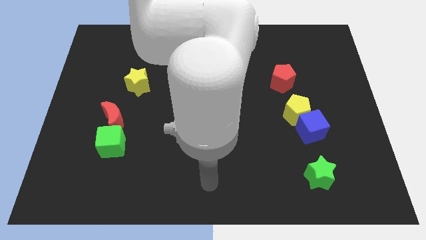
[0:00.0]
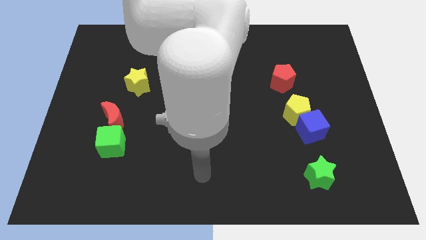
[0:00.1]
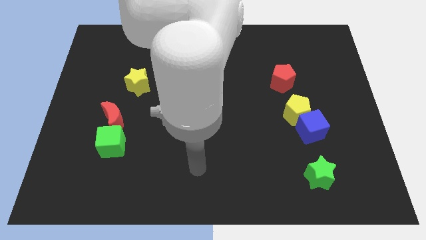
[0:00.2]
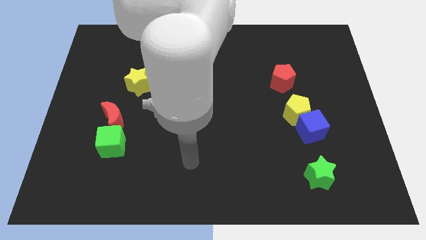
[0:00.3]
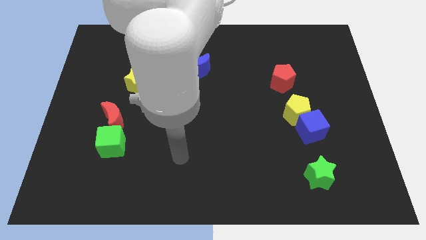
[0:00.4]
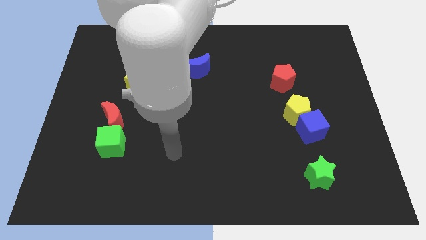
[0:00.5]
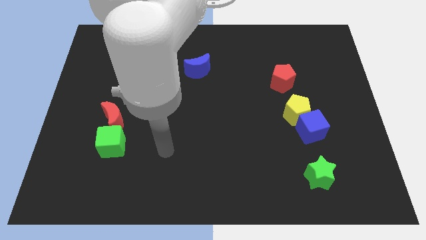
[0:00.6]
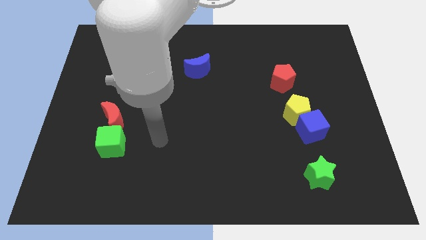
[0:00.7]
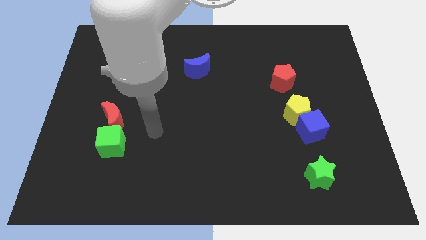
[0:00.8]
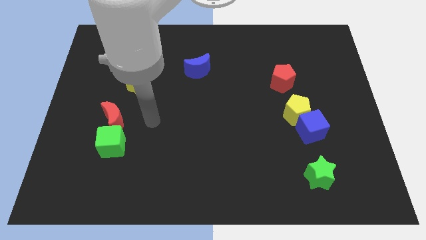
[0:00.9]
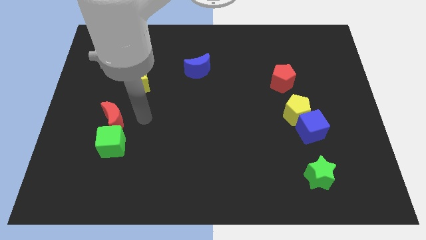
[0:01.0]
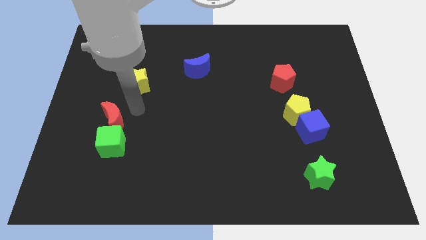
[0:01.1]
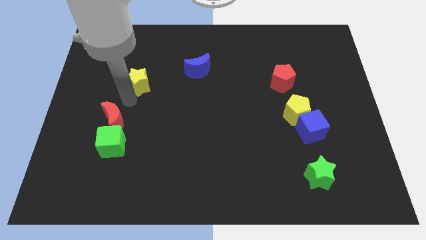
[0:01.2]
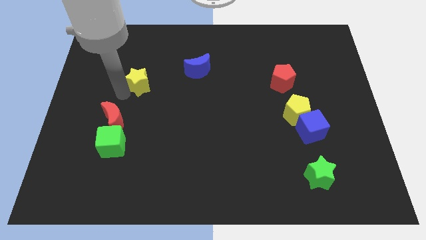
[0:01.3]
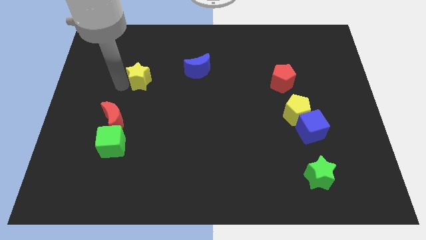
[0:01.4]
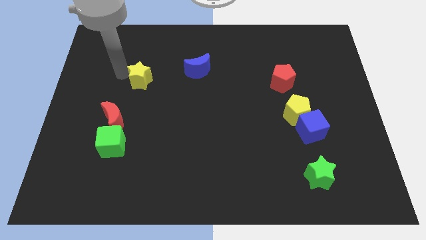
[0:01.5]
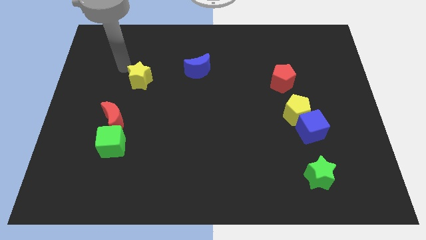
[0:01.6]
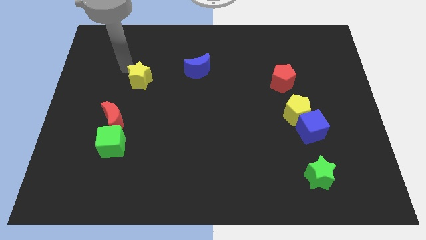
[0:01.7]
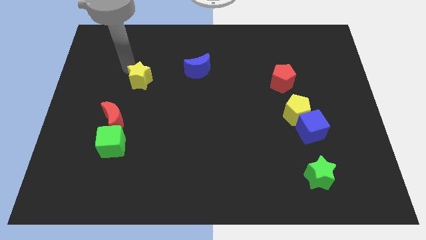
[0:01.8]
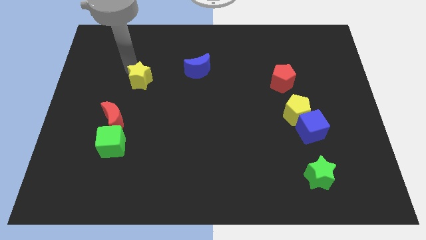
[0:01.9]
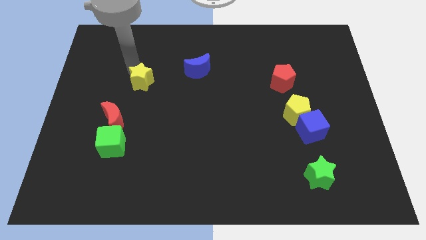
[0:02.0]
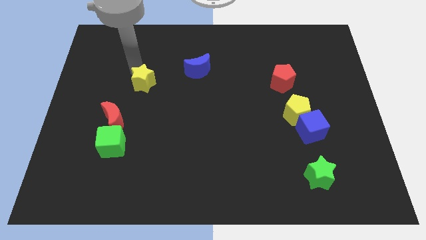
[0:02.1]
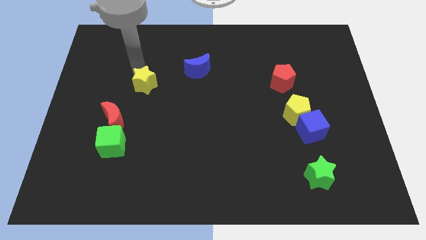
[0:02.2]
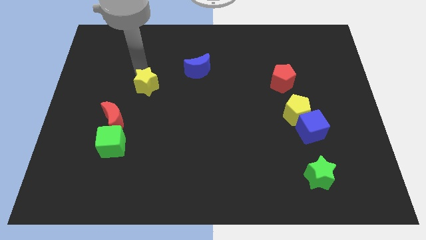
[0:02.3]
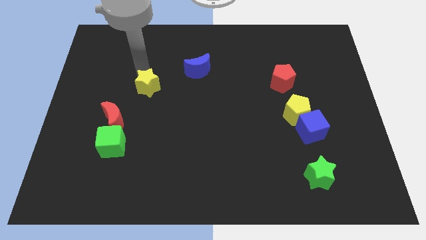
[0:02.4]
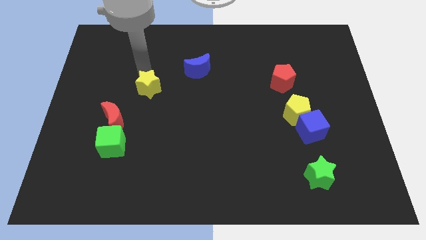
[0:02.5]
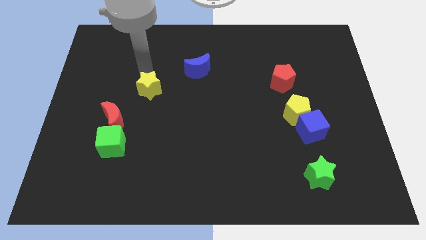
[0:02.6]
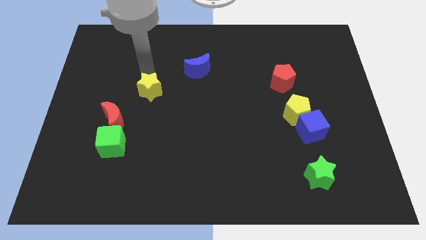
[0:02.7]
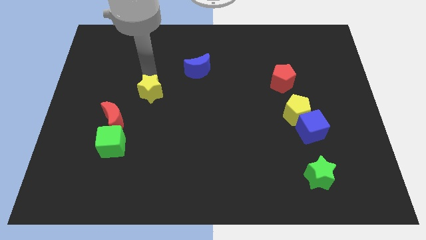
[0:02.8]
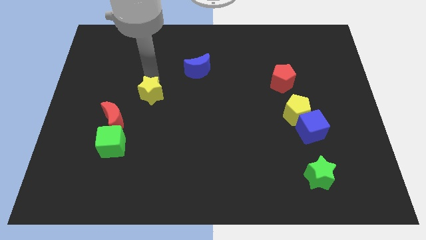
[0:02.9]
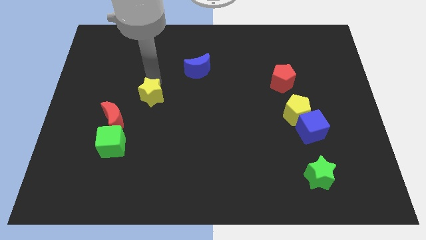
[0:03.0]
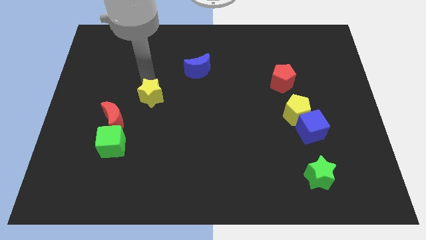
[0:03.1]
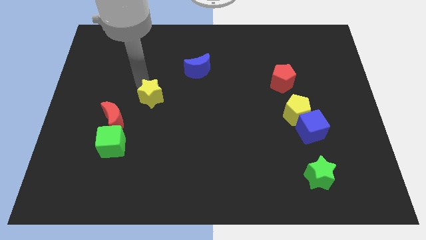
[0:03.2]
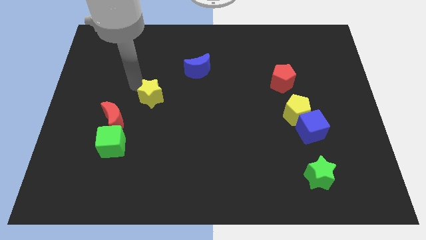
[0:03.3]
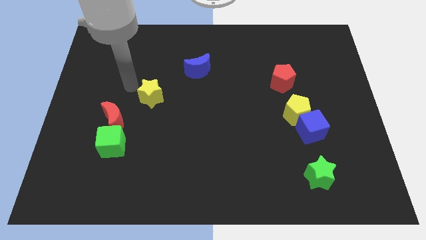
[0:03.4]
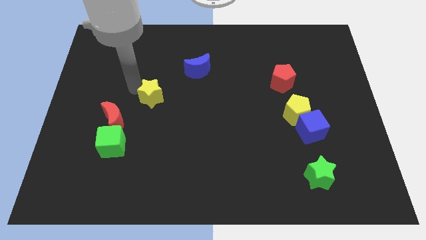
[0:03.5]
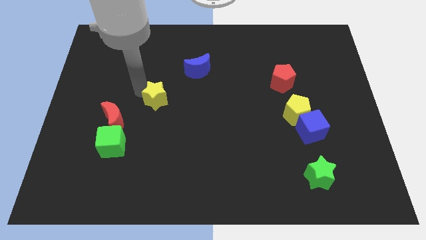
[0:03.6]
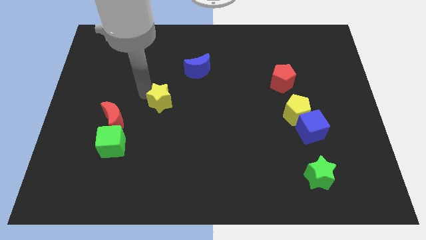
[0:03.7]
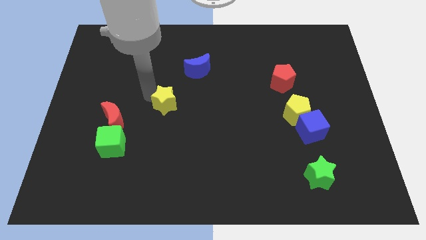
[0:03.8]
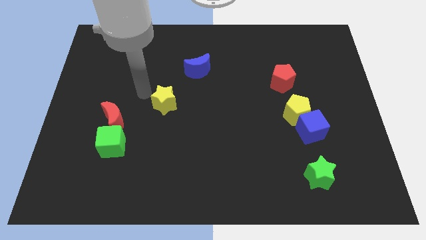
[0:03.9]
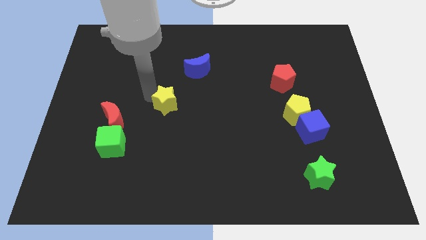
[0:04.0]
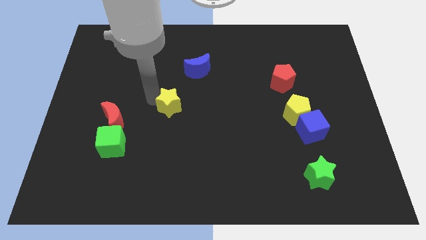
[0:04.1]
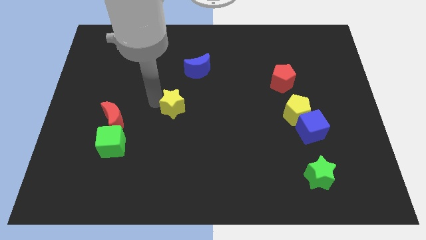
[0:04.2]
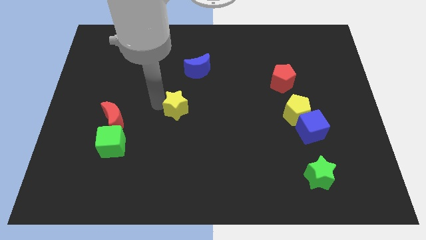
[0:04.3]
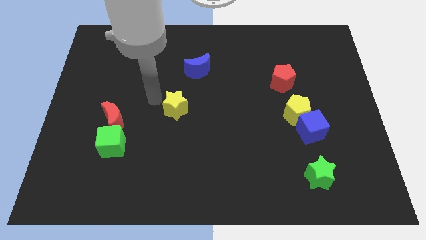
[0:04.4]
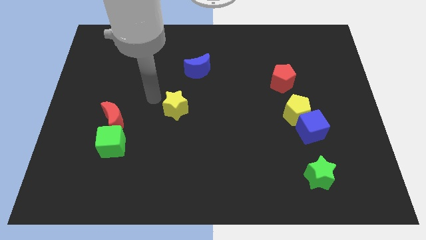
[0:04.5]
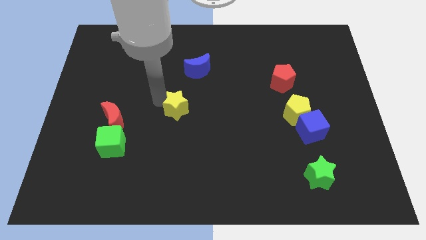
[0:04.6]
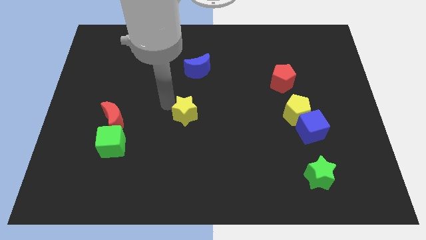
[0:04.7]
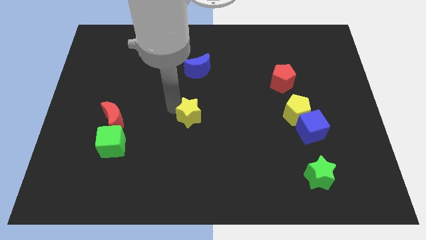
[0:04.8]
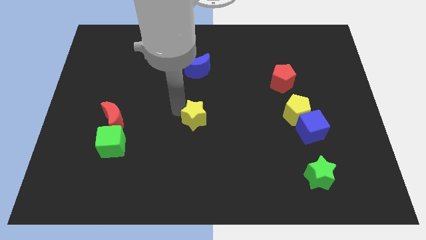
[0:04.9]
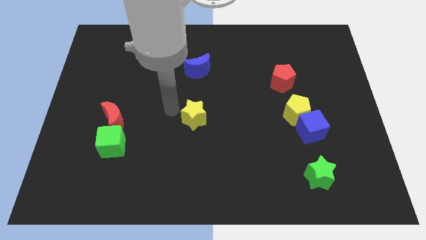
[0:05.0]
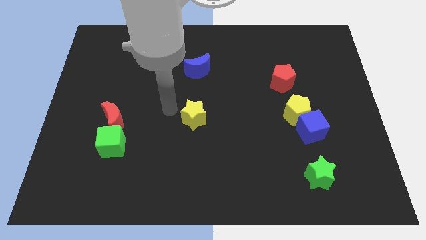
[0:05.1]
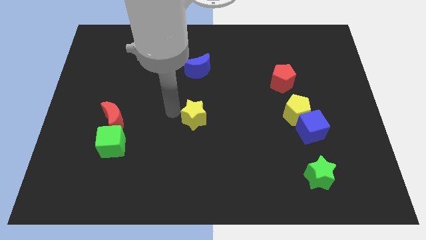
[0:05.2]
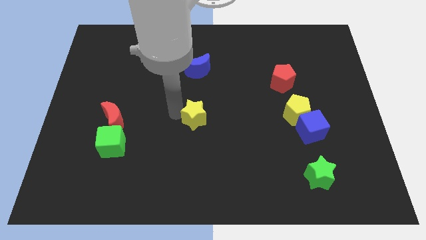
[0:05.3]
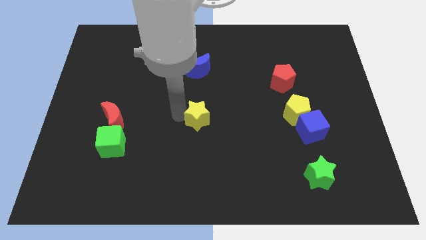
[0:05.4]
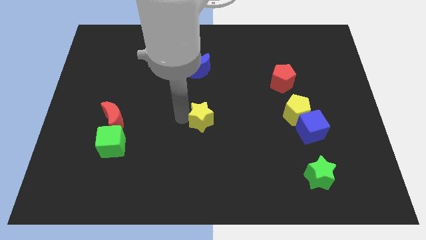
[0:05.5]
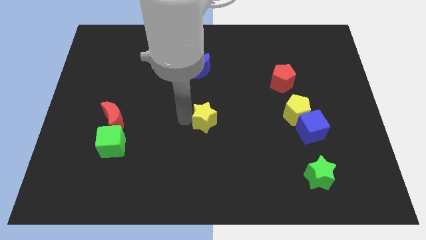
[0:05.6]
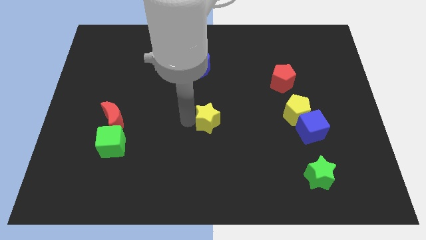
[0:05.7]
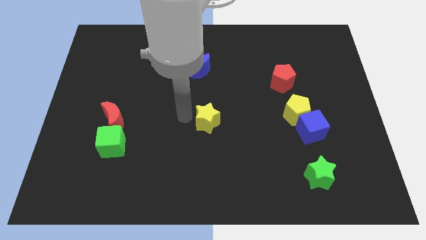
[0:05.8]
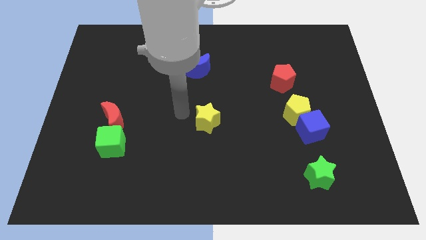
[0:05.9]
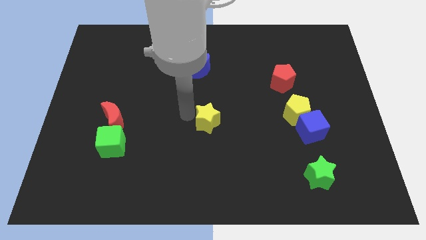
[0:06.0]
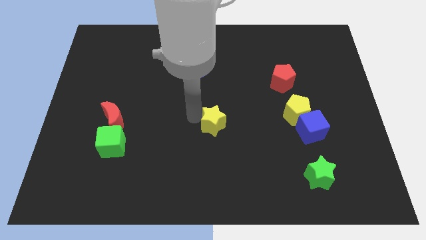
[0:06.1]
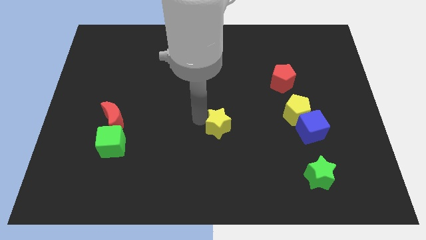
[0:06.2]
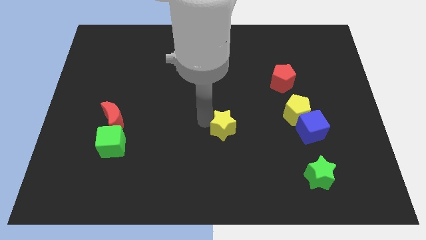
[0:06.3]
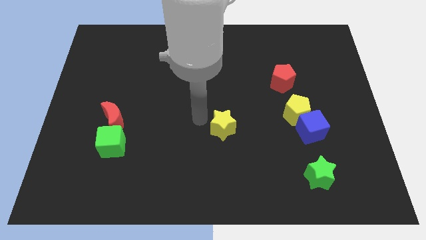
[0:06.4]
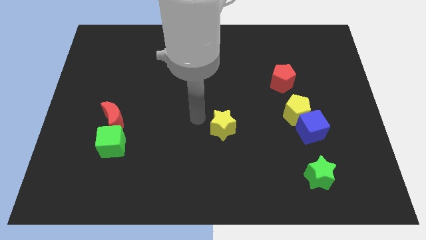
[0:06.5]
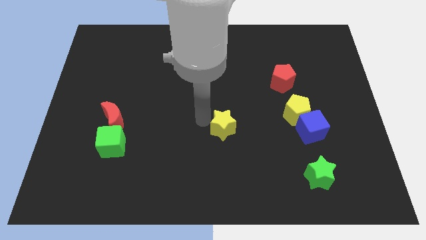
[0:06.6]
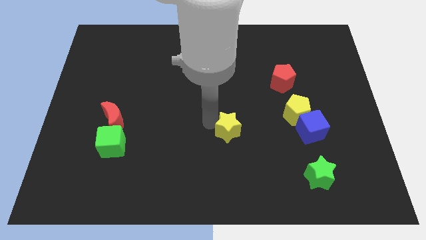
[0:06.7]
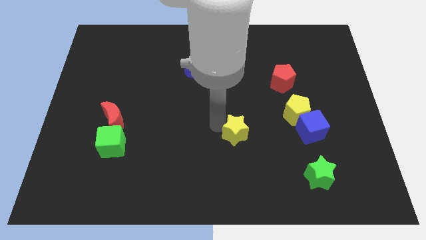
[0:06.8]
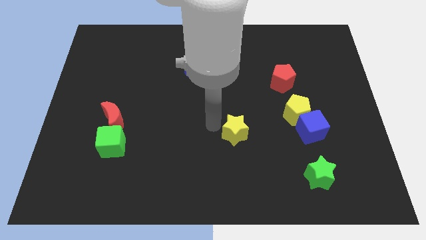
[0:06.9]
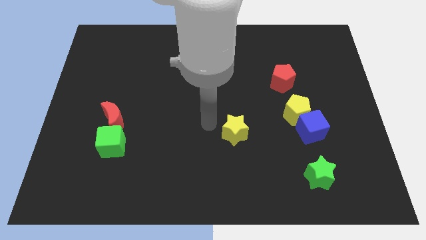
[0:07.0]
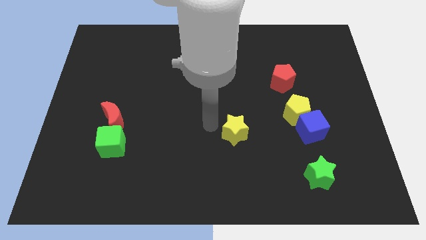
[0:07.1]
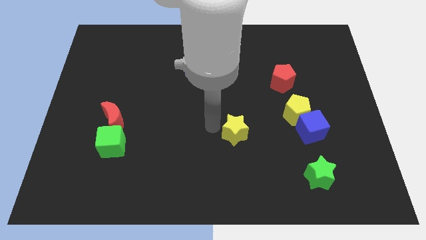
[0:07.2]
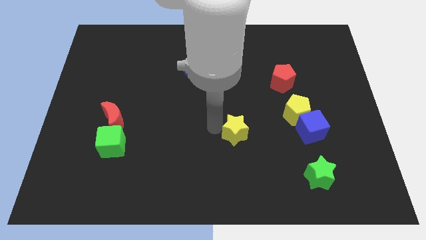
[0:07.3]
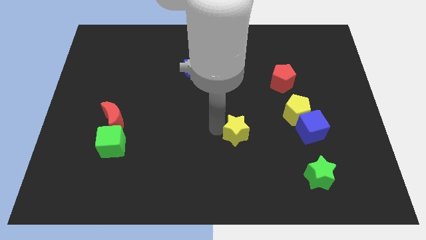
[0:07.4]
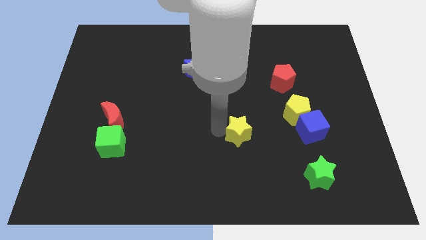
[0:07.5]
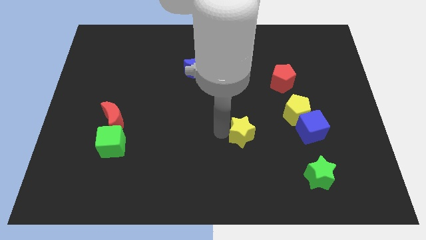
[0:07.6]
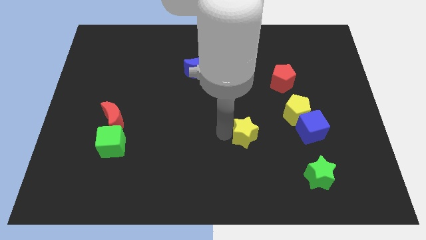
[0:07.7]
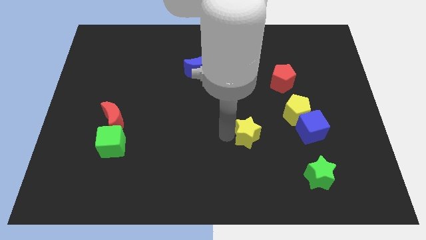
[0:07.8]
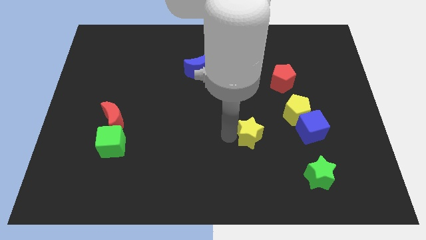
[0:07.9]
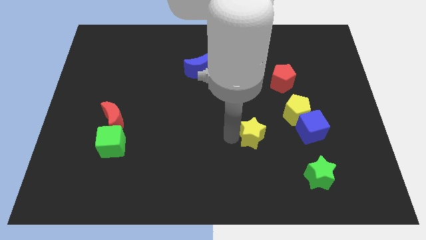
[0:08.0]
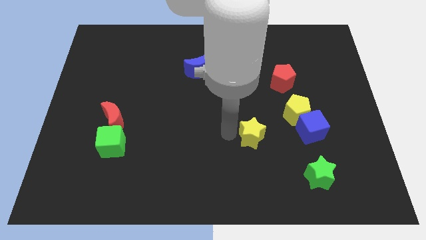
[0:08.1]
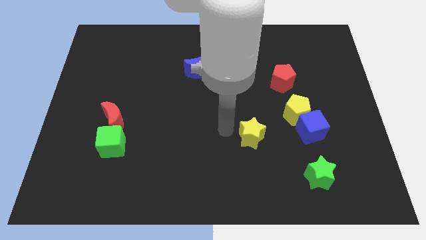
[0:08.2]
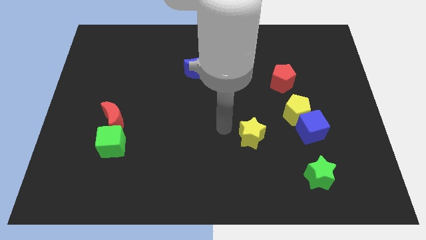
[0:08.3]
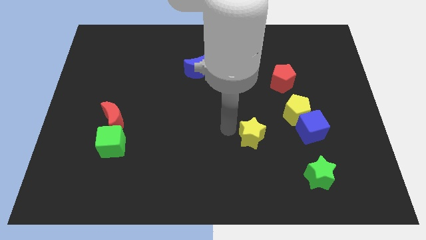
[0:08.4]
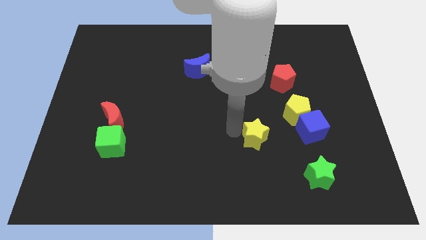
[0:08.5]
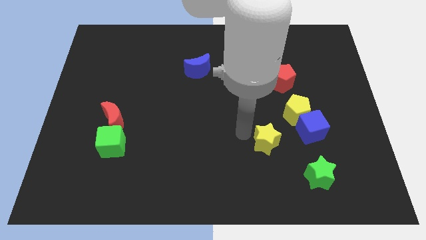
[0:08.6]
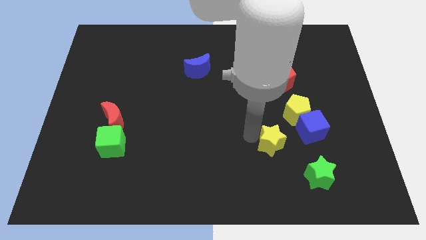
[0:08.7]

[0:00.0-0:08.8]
push the yellow star to the bottom left side of the blue cube
